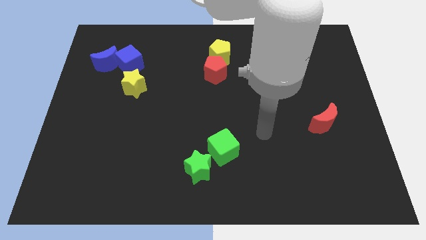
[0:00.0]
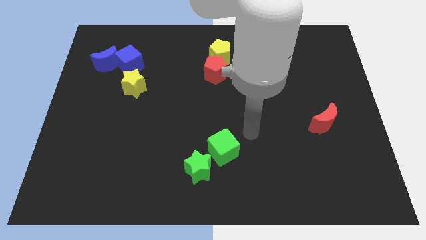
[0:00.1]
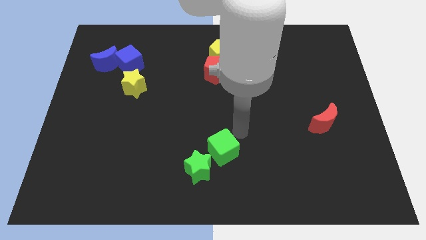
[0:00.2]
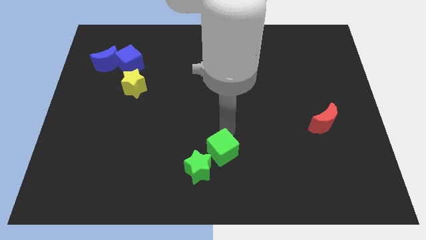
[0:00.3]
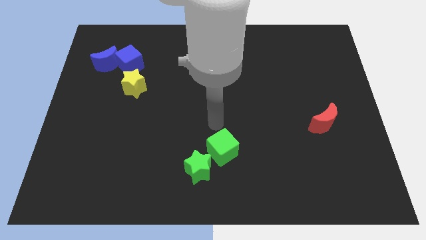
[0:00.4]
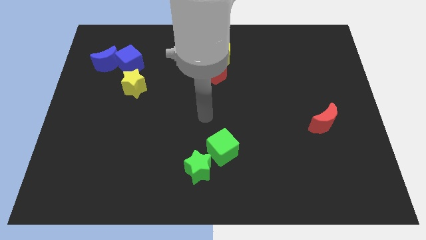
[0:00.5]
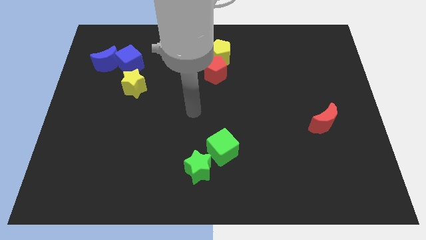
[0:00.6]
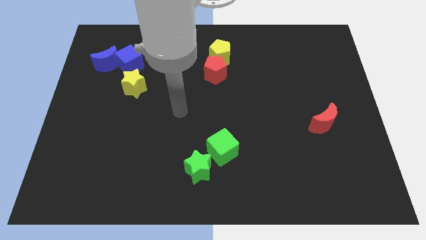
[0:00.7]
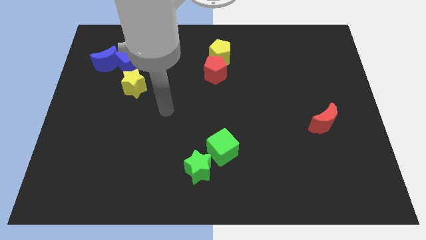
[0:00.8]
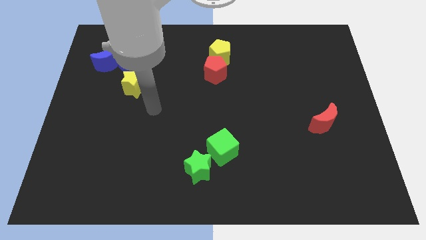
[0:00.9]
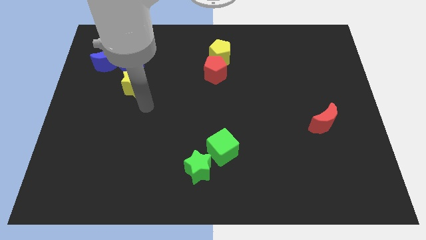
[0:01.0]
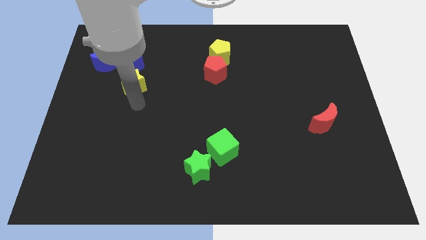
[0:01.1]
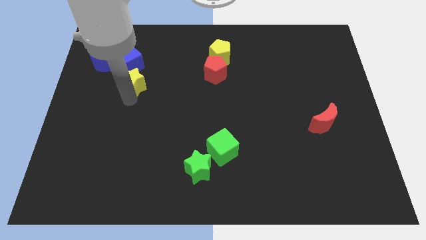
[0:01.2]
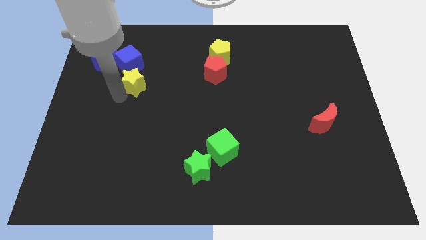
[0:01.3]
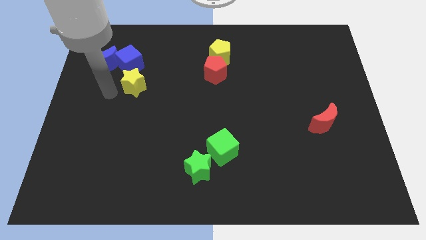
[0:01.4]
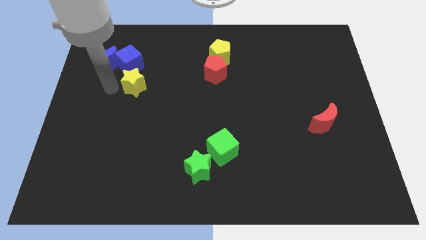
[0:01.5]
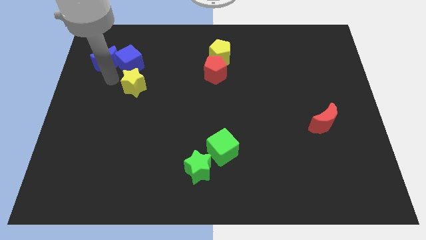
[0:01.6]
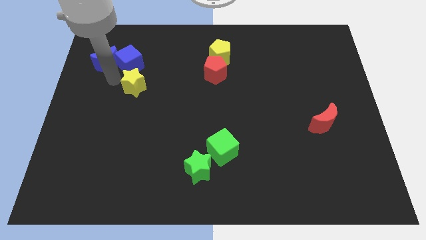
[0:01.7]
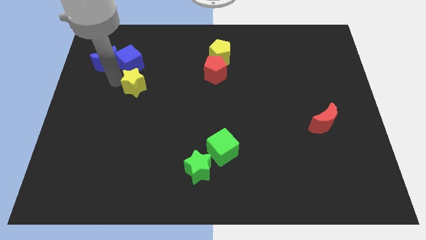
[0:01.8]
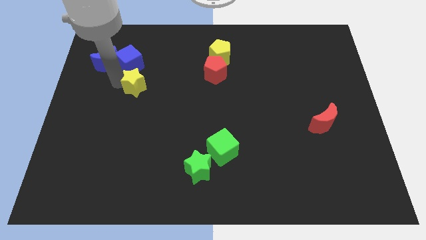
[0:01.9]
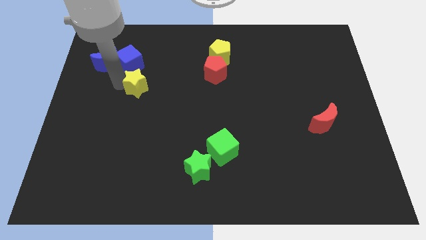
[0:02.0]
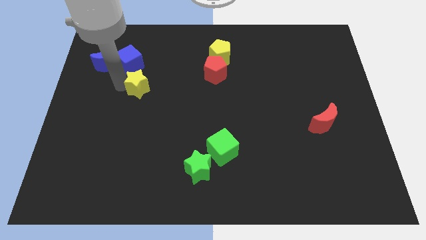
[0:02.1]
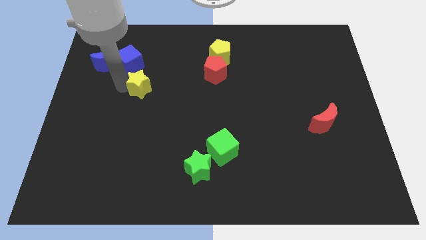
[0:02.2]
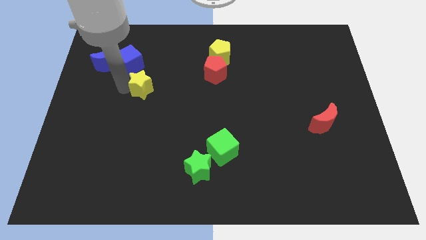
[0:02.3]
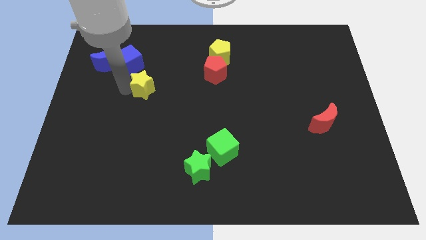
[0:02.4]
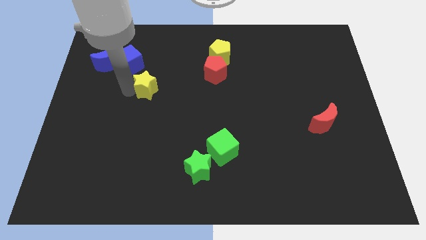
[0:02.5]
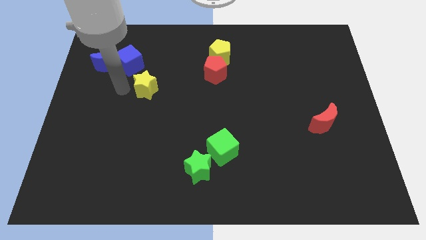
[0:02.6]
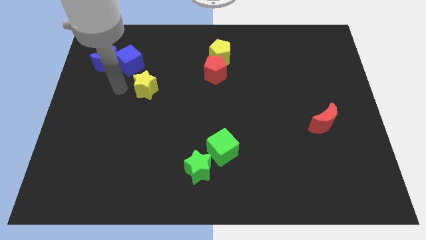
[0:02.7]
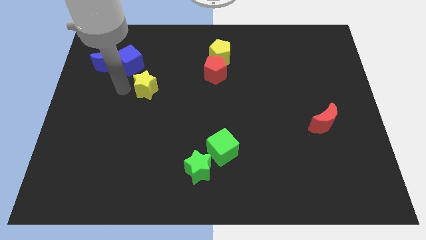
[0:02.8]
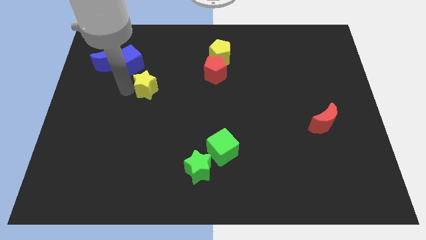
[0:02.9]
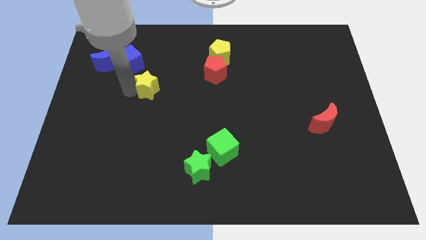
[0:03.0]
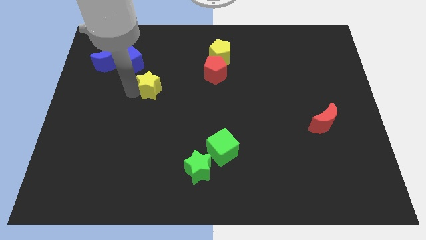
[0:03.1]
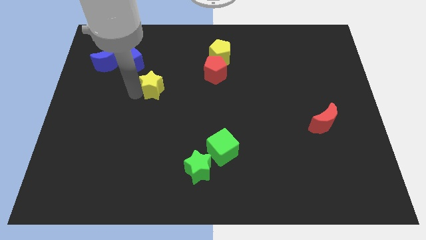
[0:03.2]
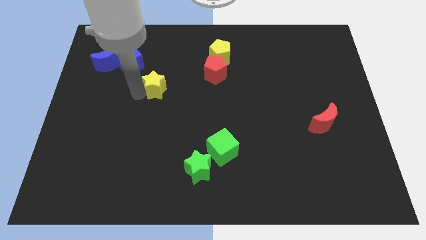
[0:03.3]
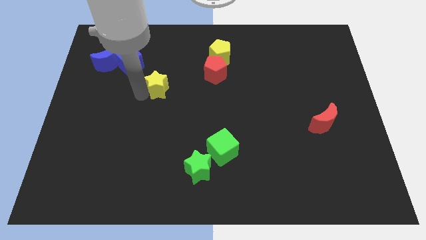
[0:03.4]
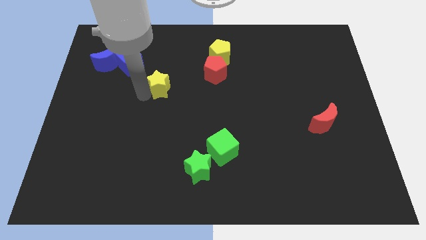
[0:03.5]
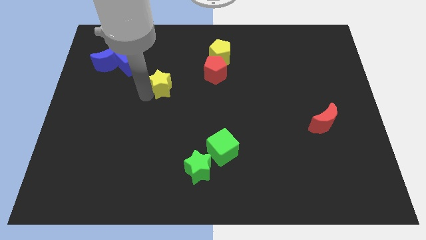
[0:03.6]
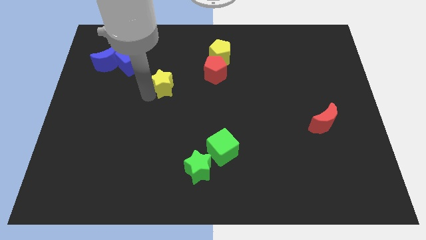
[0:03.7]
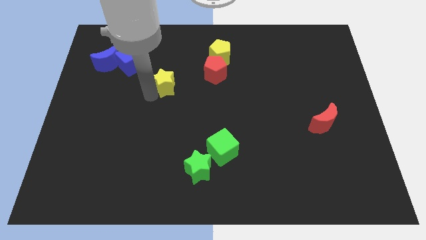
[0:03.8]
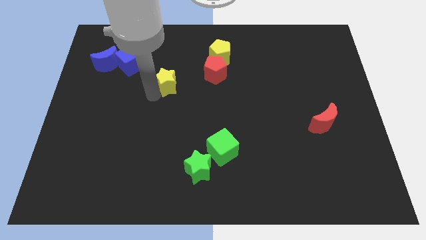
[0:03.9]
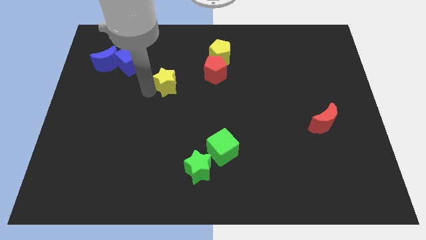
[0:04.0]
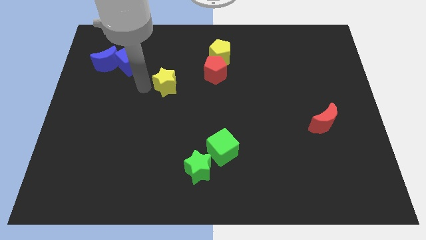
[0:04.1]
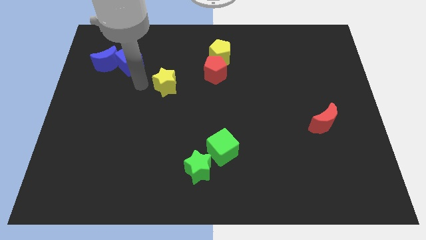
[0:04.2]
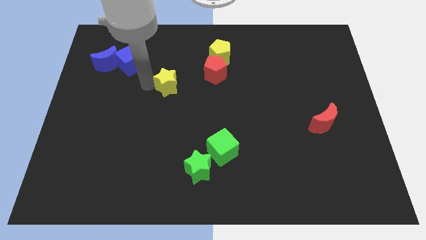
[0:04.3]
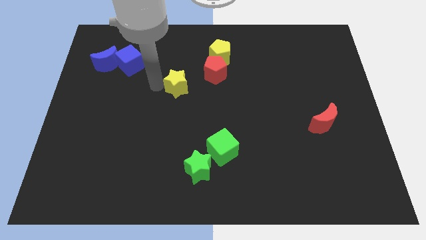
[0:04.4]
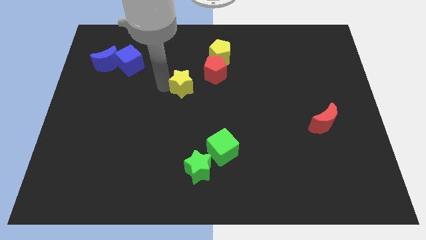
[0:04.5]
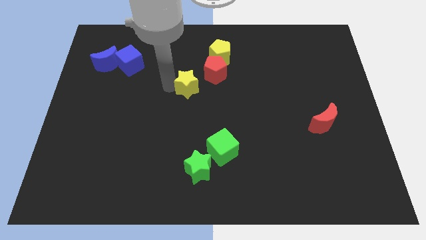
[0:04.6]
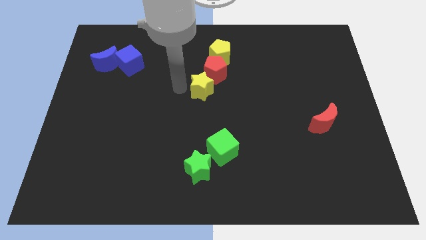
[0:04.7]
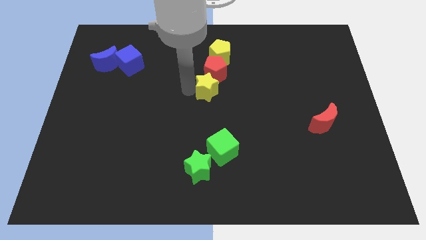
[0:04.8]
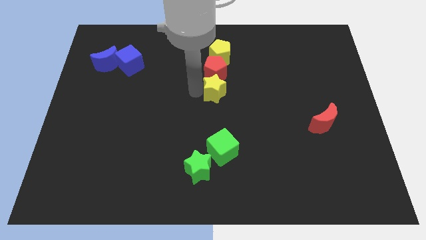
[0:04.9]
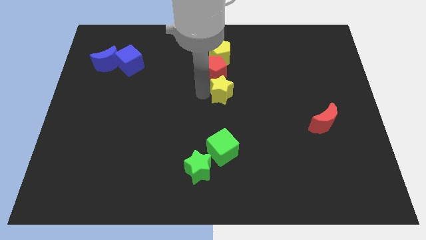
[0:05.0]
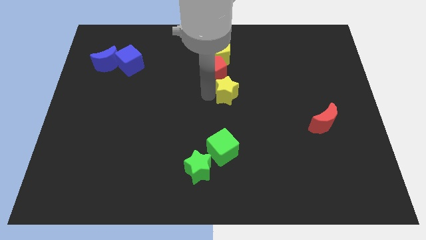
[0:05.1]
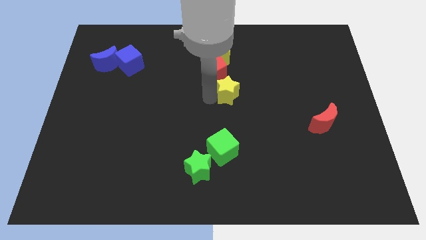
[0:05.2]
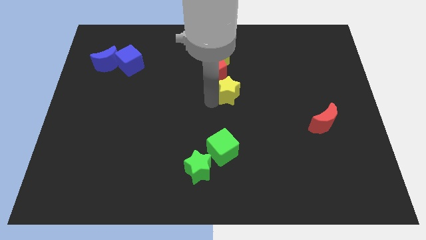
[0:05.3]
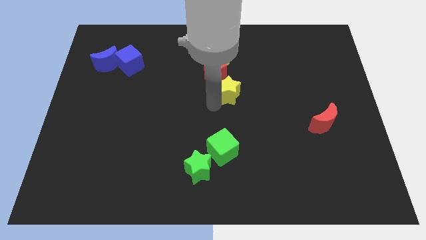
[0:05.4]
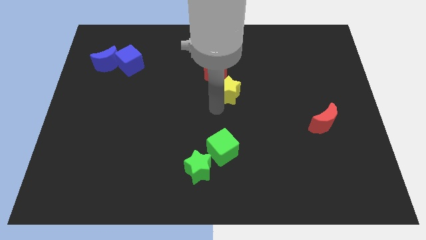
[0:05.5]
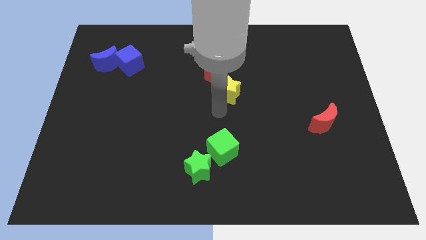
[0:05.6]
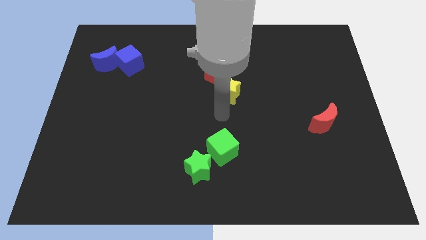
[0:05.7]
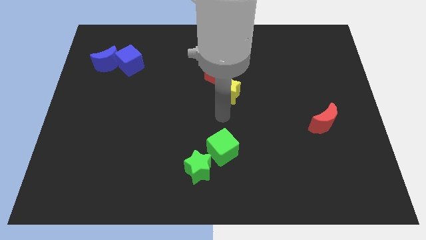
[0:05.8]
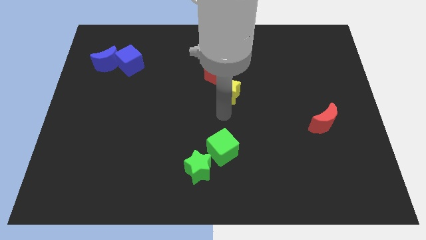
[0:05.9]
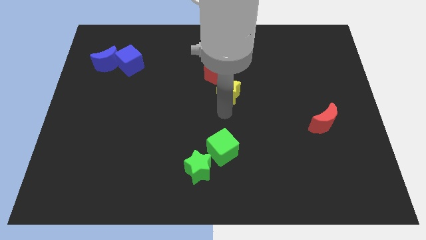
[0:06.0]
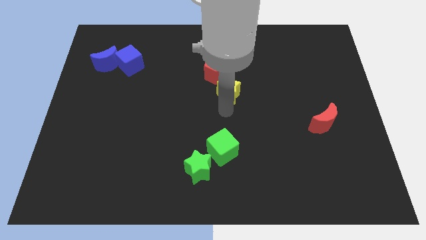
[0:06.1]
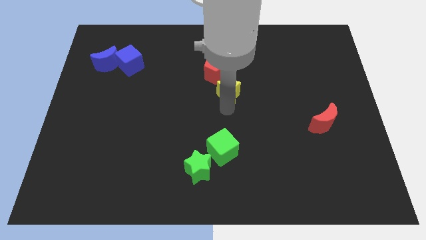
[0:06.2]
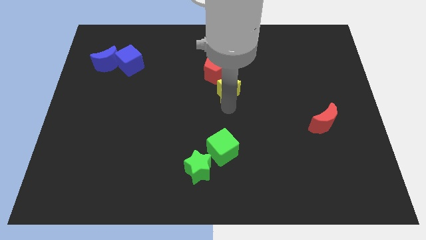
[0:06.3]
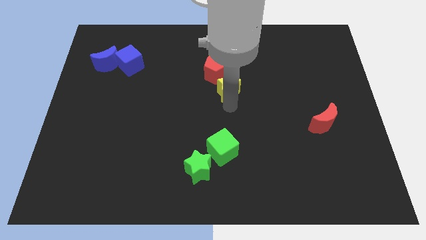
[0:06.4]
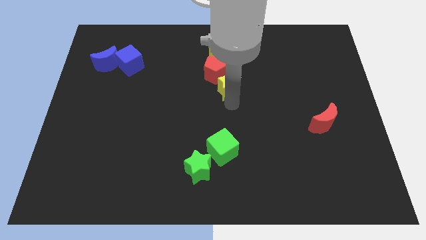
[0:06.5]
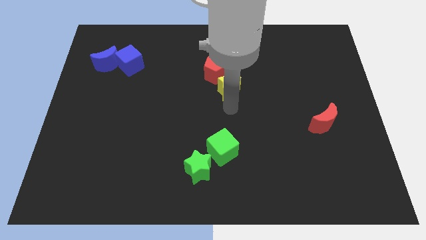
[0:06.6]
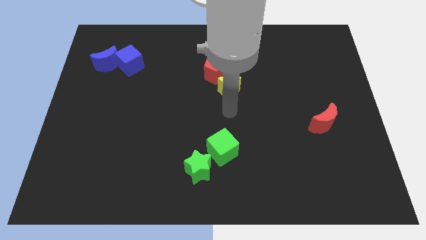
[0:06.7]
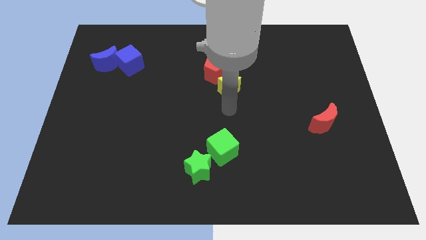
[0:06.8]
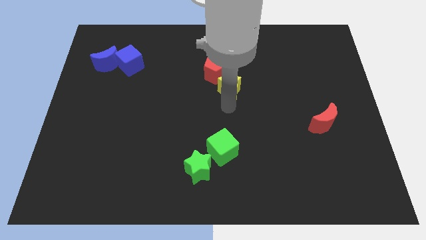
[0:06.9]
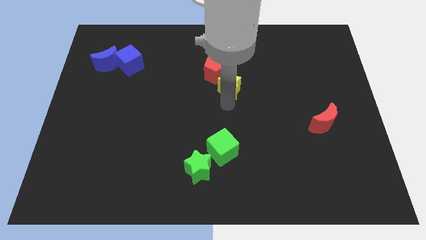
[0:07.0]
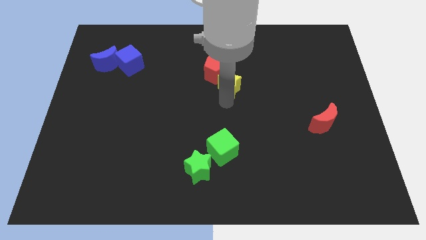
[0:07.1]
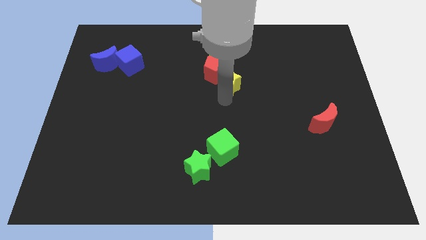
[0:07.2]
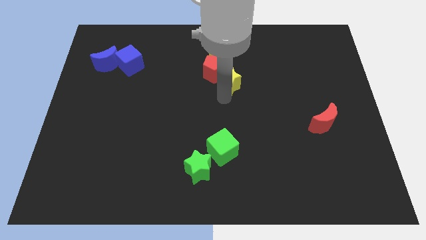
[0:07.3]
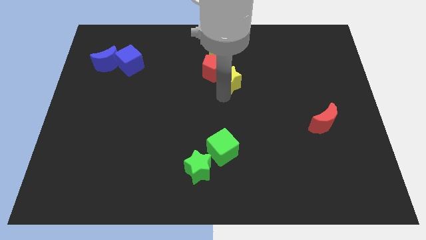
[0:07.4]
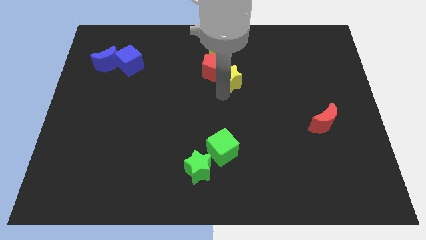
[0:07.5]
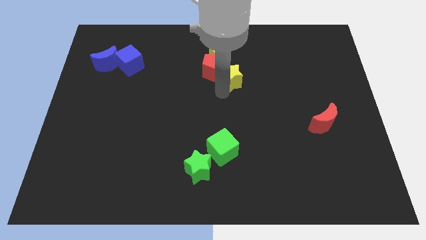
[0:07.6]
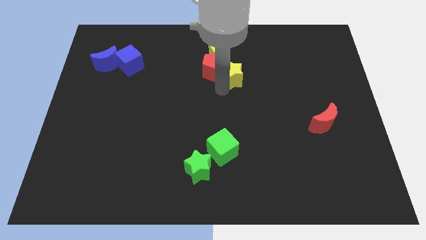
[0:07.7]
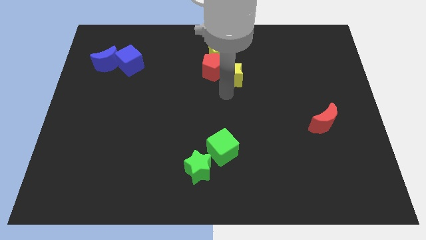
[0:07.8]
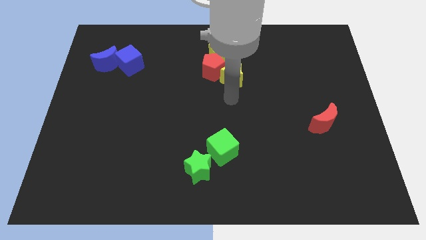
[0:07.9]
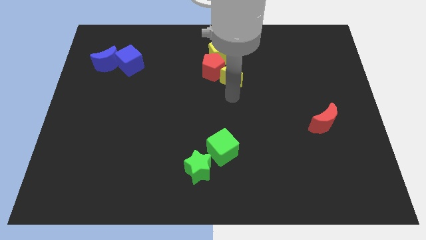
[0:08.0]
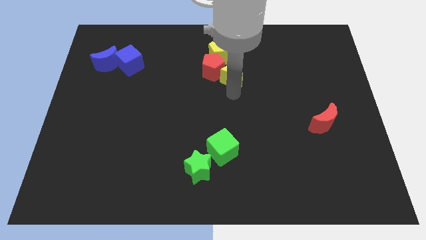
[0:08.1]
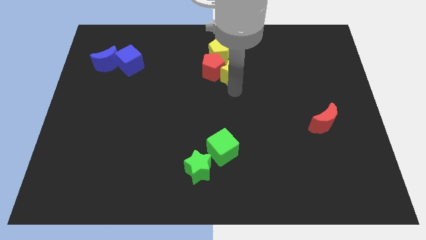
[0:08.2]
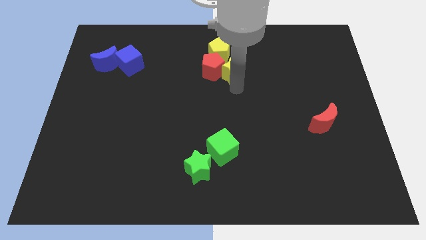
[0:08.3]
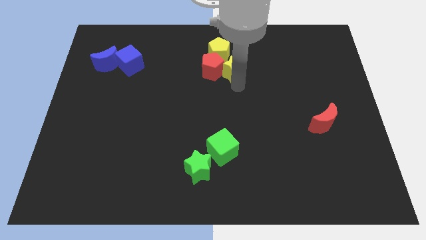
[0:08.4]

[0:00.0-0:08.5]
slide the yellow star diagonally up and to the right of the red pentagon
